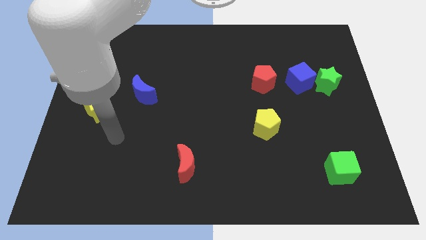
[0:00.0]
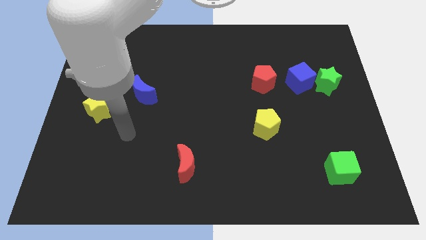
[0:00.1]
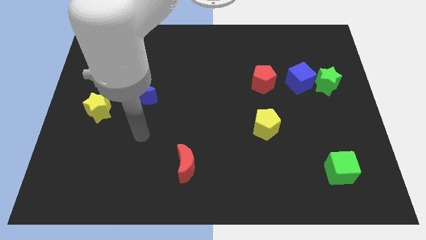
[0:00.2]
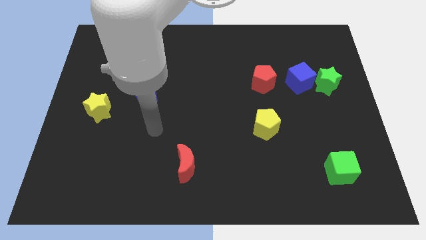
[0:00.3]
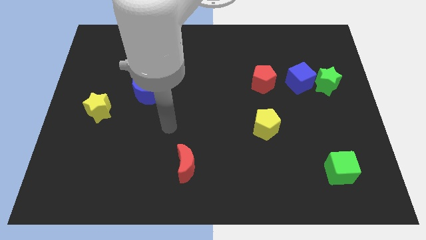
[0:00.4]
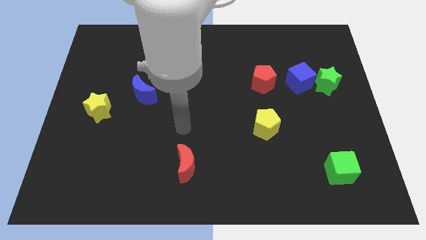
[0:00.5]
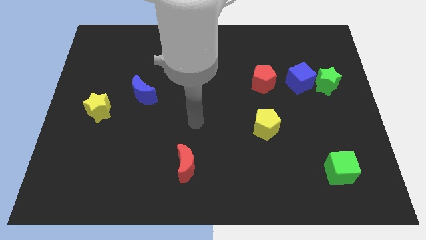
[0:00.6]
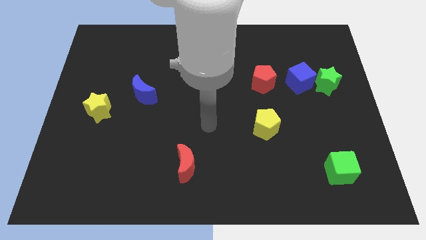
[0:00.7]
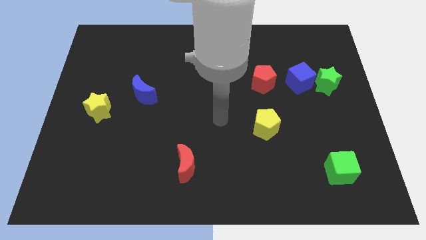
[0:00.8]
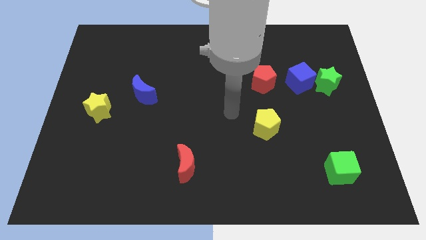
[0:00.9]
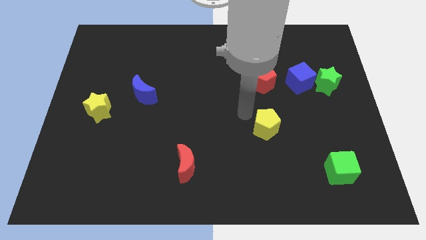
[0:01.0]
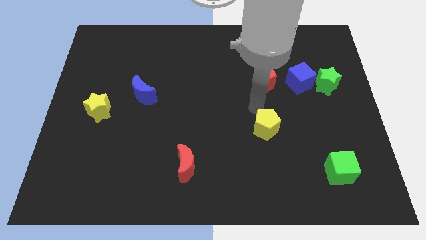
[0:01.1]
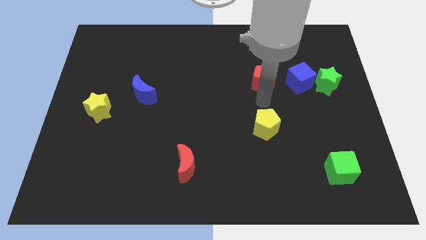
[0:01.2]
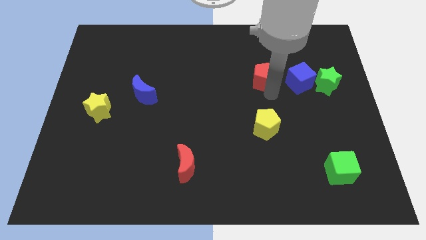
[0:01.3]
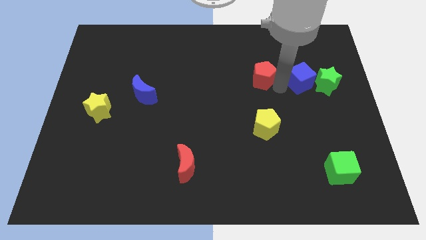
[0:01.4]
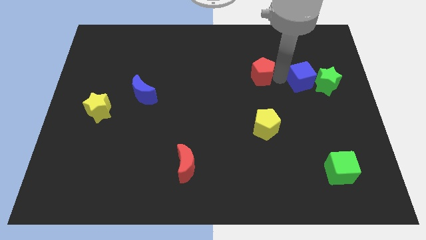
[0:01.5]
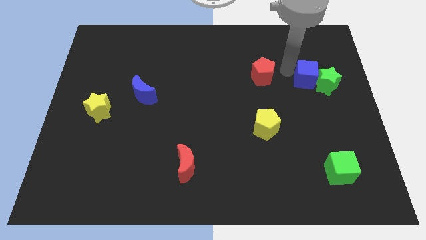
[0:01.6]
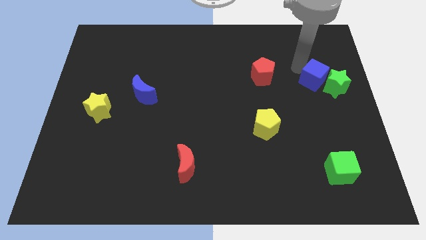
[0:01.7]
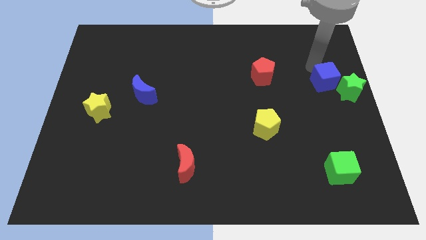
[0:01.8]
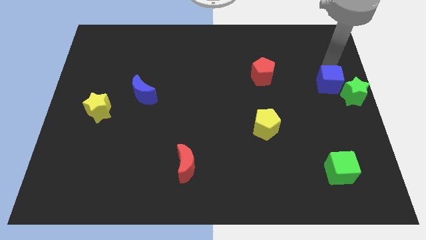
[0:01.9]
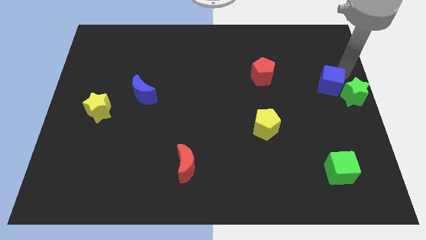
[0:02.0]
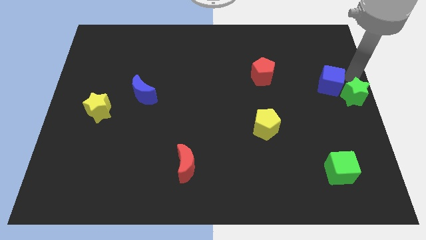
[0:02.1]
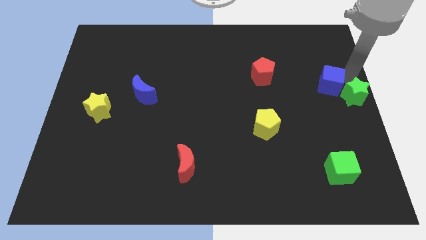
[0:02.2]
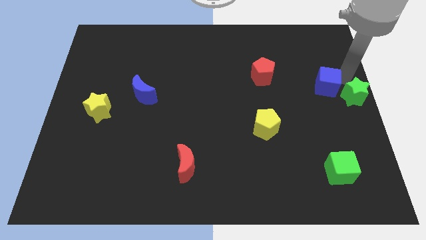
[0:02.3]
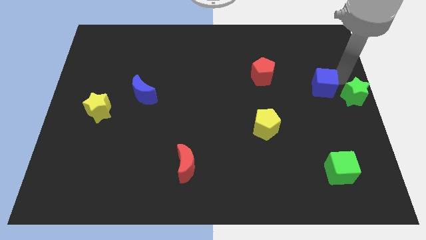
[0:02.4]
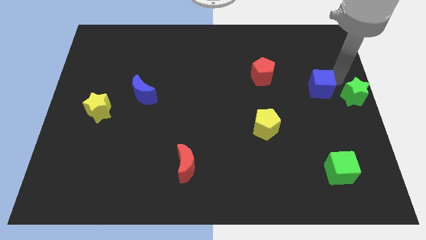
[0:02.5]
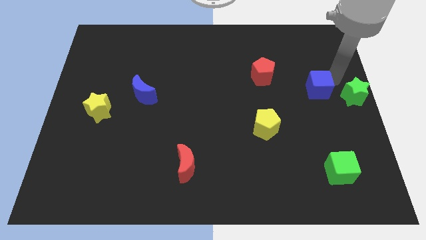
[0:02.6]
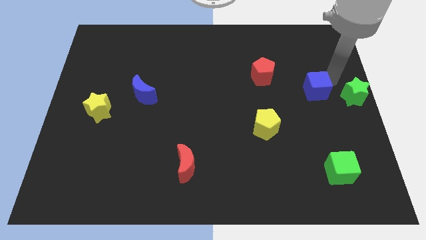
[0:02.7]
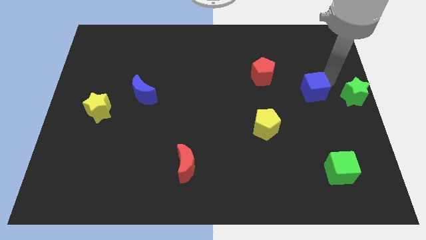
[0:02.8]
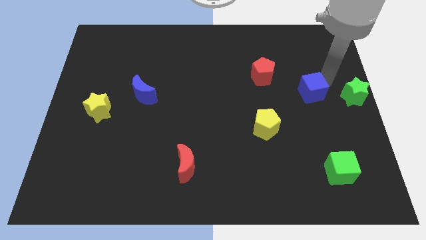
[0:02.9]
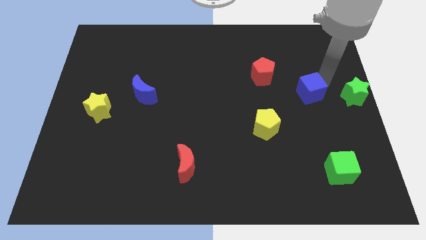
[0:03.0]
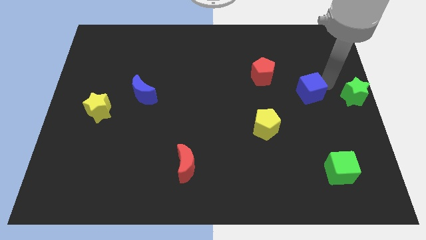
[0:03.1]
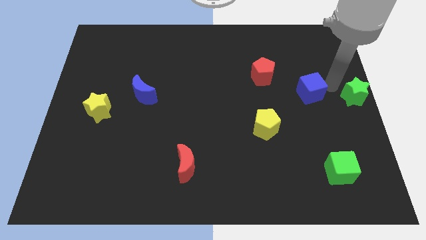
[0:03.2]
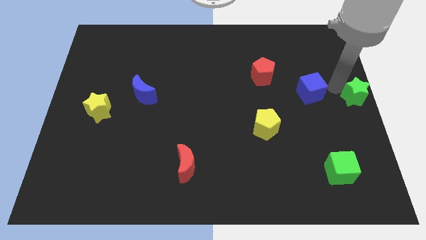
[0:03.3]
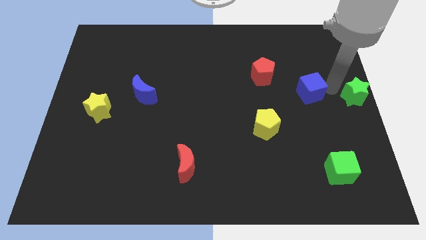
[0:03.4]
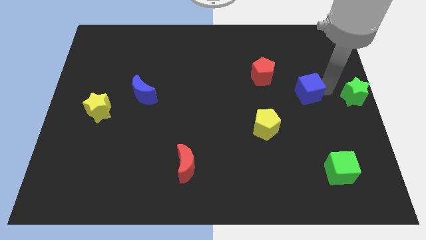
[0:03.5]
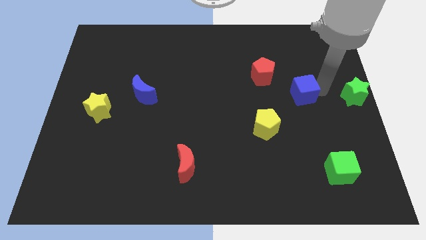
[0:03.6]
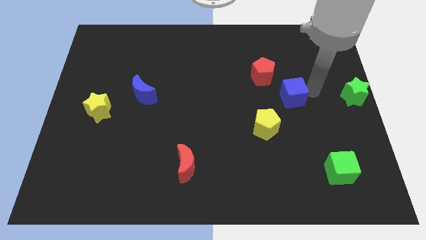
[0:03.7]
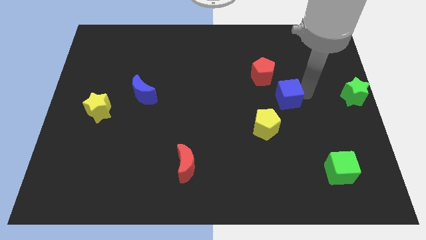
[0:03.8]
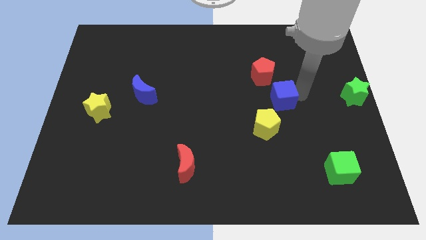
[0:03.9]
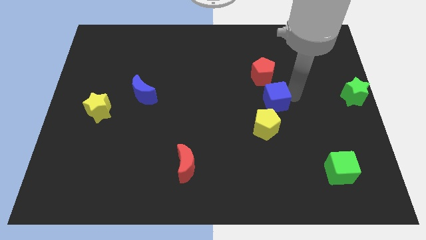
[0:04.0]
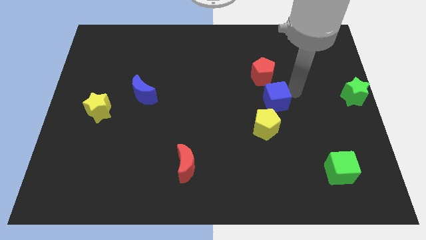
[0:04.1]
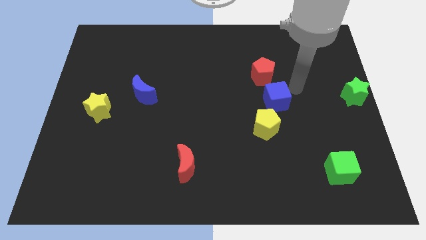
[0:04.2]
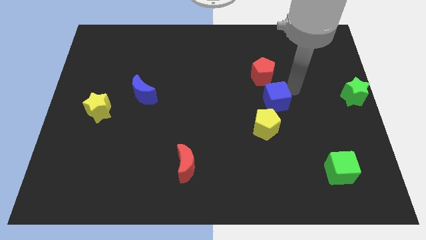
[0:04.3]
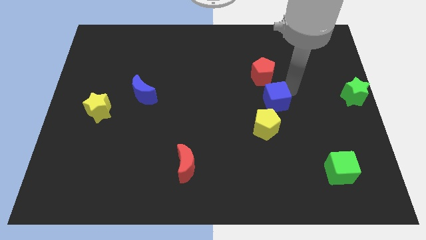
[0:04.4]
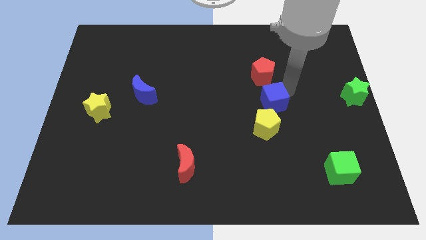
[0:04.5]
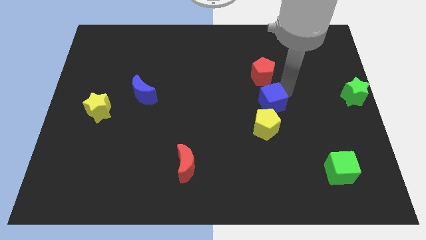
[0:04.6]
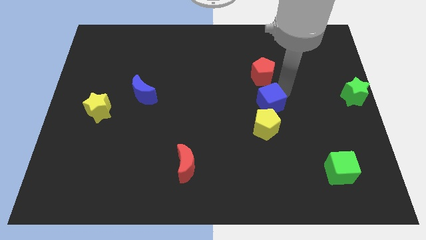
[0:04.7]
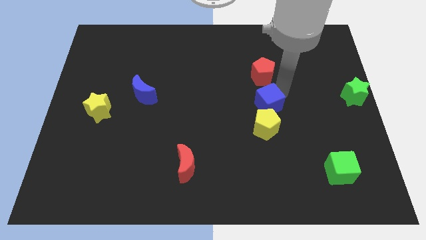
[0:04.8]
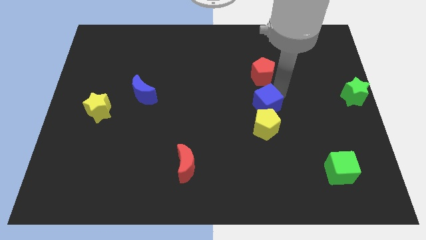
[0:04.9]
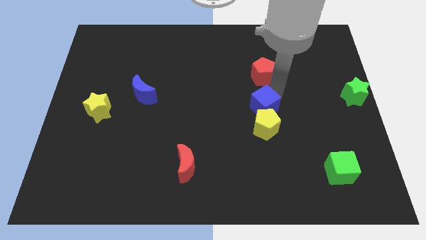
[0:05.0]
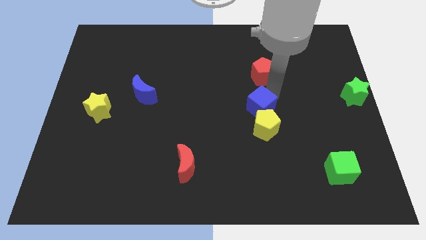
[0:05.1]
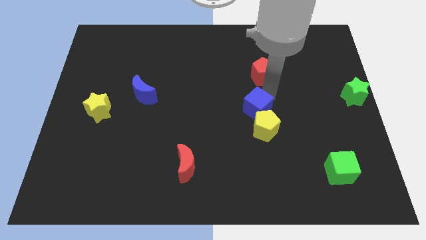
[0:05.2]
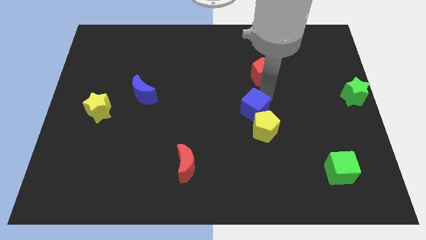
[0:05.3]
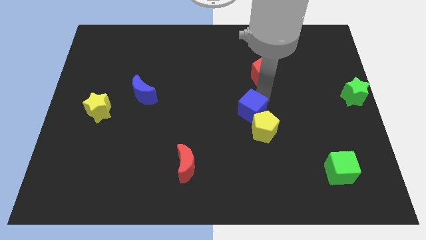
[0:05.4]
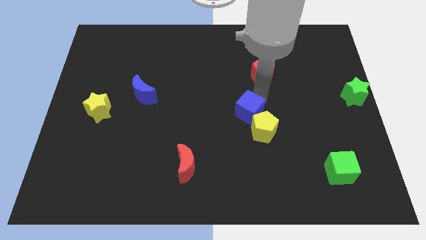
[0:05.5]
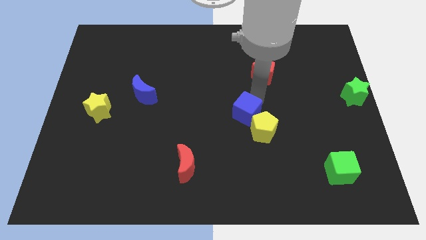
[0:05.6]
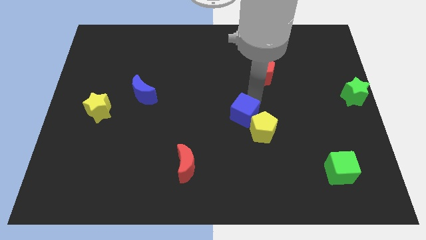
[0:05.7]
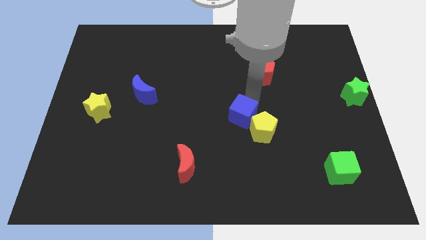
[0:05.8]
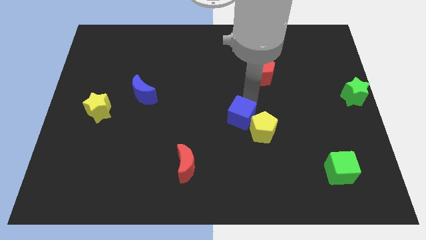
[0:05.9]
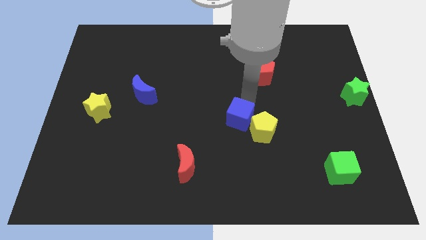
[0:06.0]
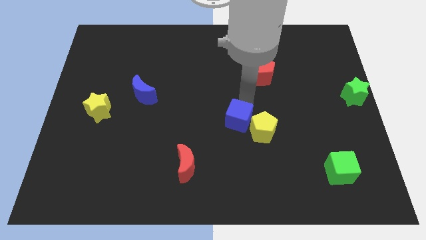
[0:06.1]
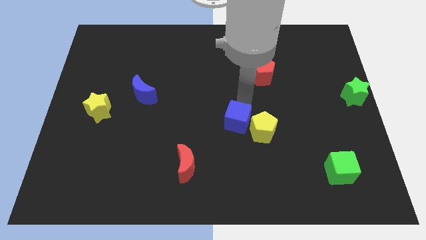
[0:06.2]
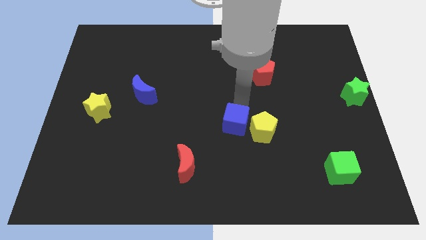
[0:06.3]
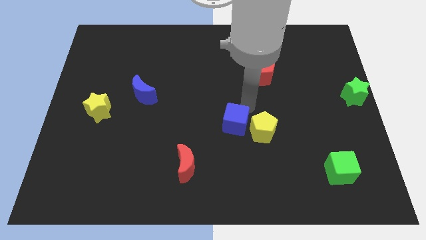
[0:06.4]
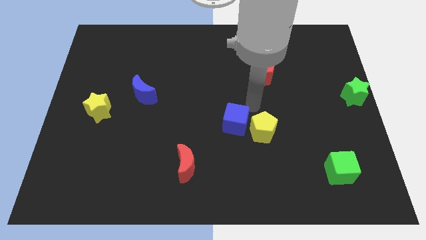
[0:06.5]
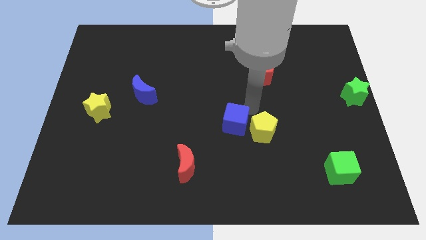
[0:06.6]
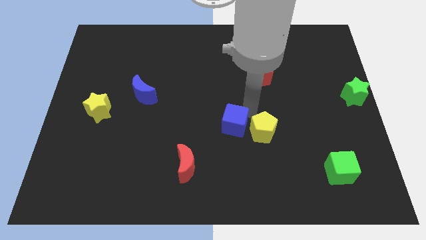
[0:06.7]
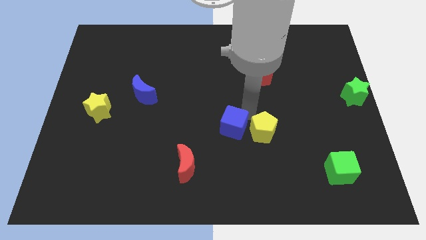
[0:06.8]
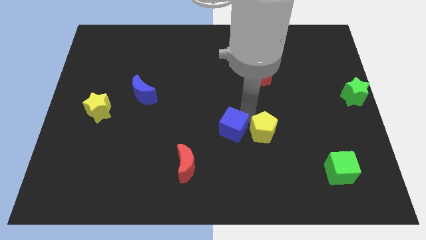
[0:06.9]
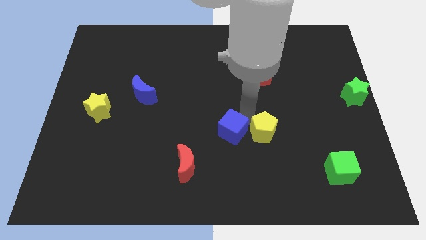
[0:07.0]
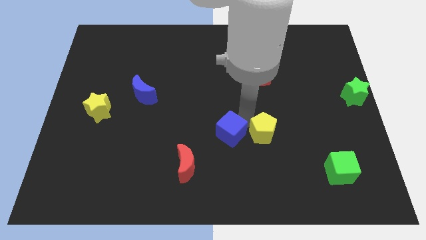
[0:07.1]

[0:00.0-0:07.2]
slide the blue cube diagonally up and to the right of the red moon

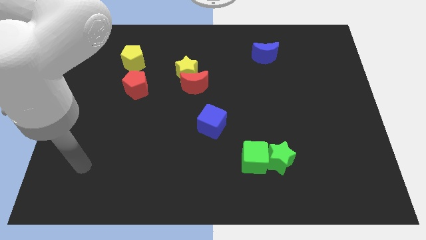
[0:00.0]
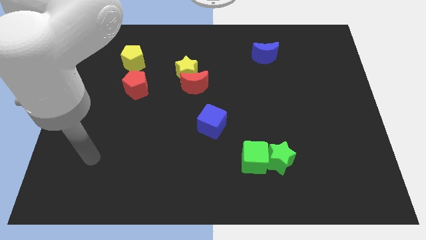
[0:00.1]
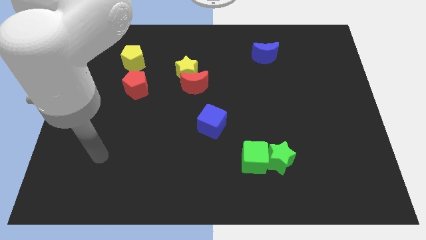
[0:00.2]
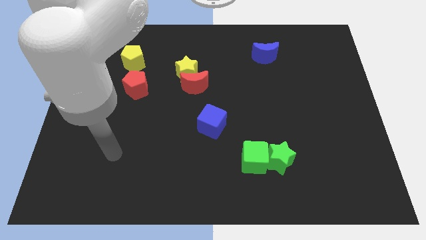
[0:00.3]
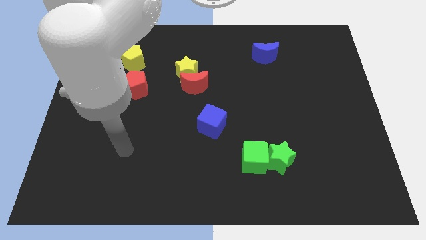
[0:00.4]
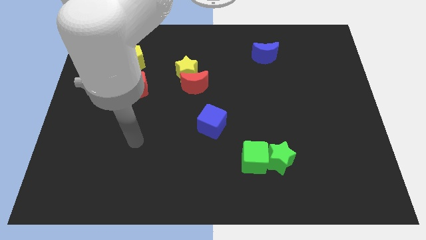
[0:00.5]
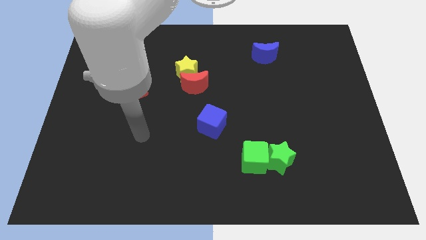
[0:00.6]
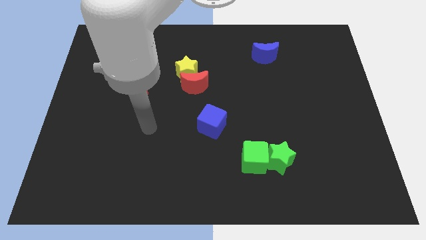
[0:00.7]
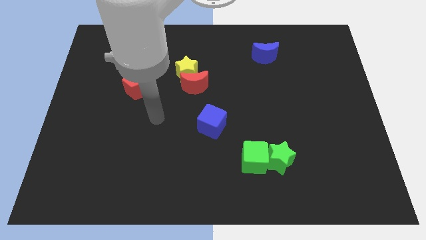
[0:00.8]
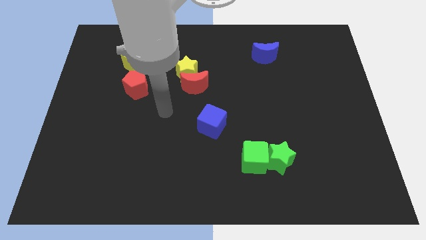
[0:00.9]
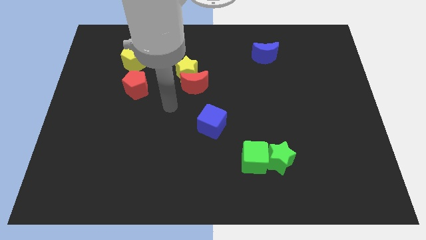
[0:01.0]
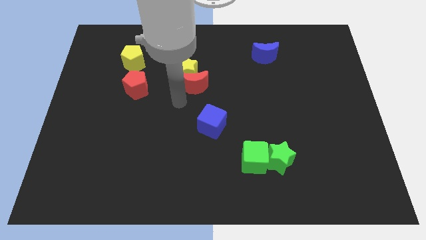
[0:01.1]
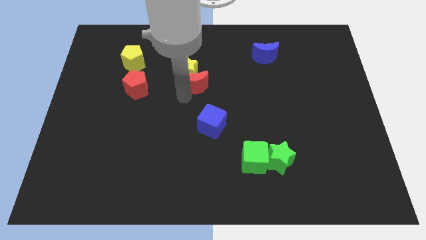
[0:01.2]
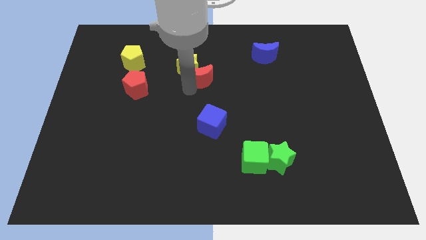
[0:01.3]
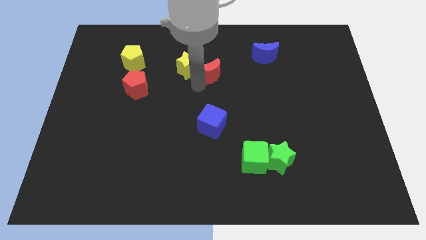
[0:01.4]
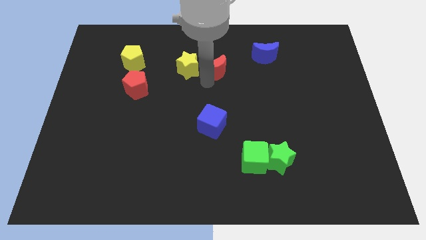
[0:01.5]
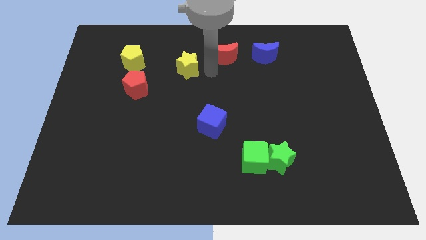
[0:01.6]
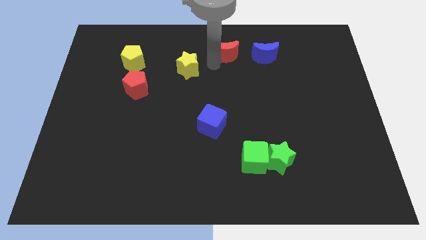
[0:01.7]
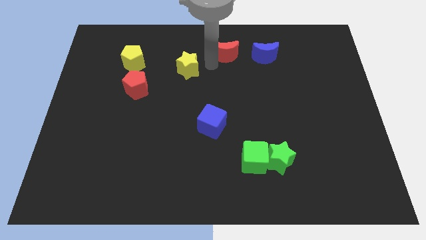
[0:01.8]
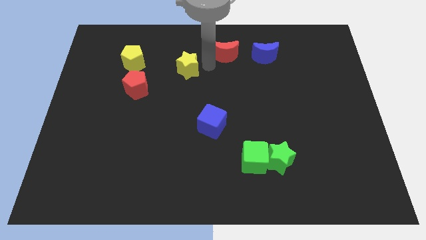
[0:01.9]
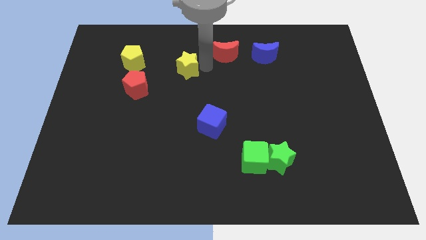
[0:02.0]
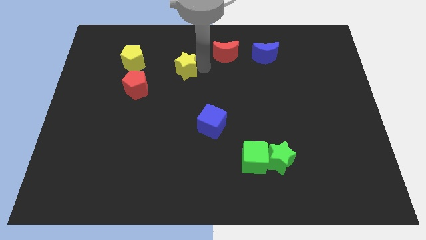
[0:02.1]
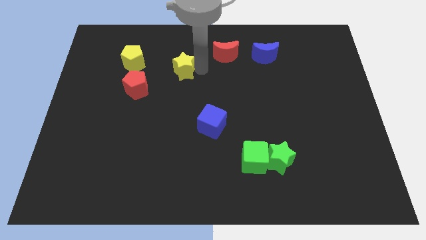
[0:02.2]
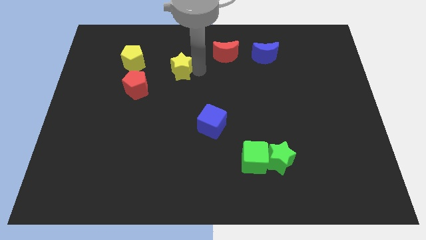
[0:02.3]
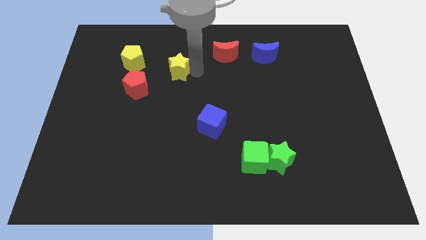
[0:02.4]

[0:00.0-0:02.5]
slide the yellow star to the top right side of the red pentagon
